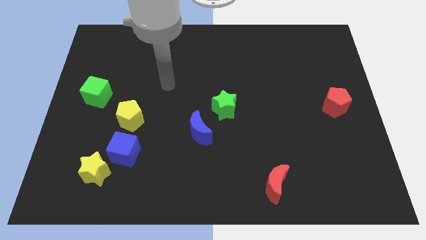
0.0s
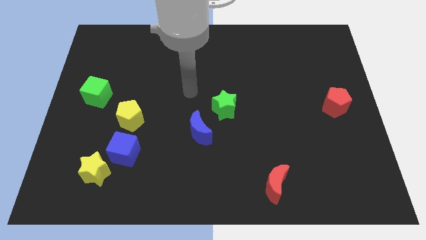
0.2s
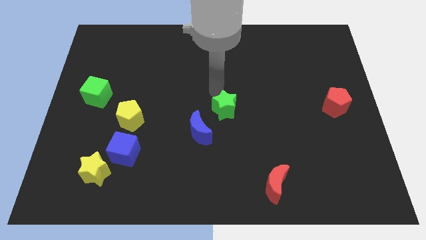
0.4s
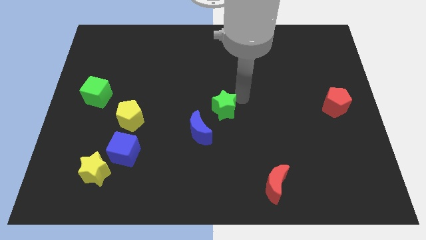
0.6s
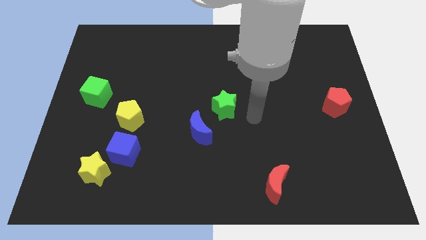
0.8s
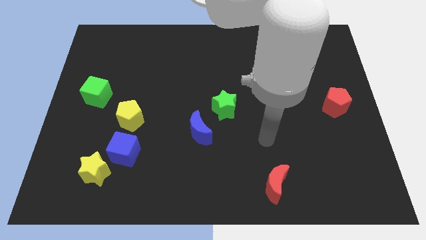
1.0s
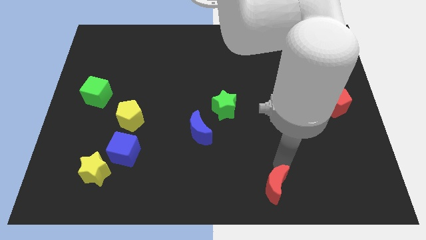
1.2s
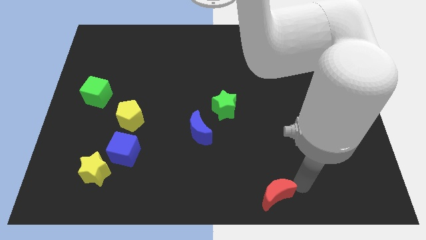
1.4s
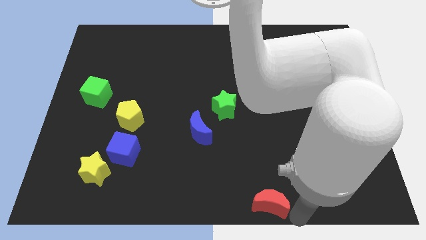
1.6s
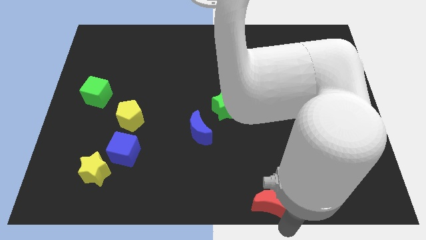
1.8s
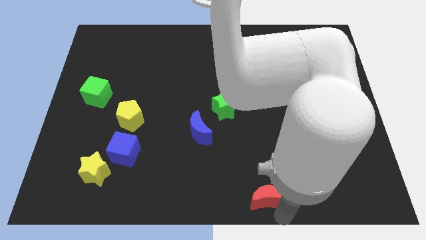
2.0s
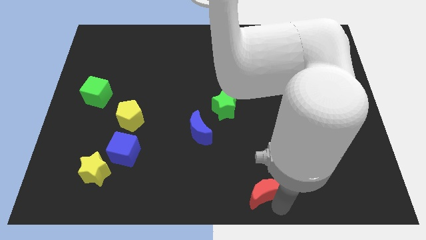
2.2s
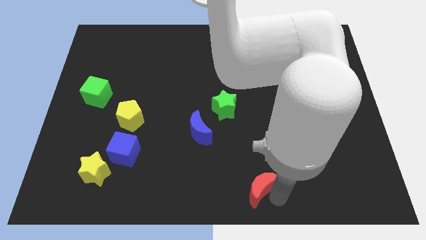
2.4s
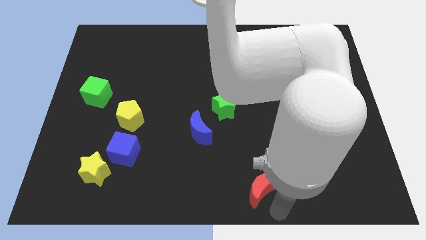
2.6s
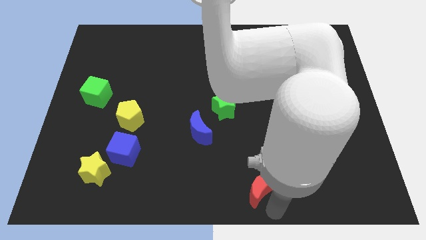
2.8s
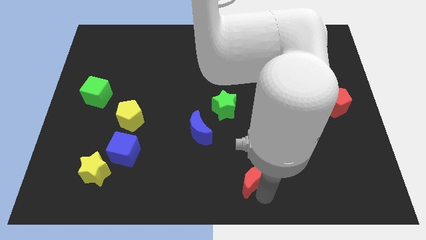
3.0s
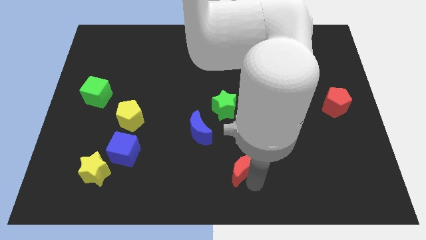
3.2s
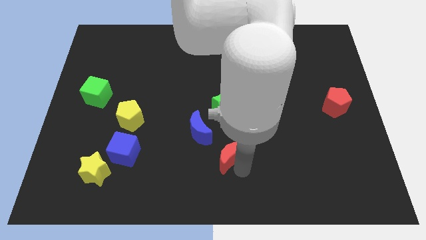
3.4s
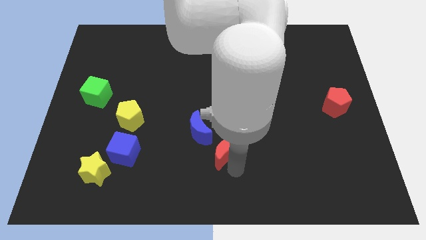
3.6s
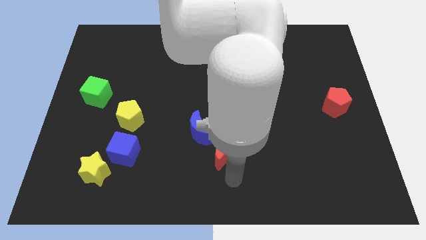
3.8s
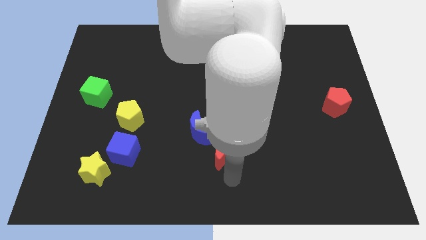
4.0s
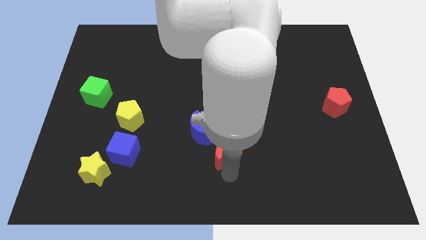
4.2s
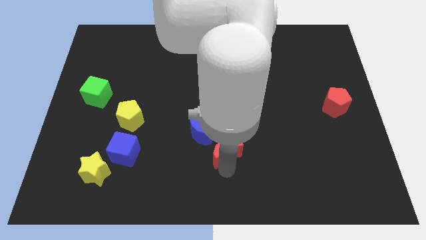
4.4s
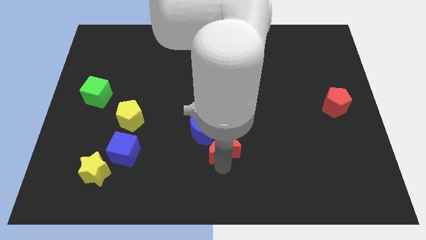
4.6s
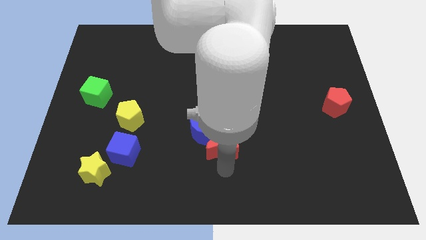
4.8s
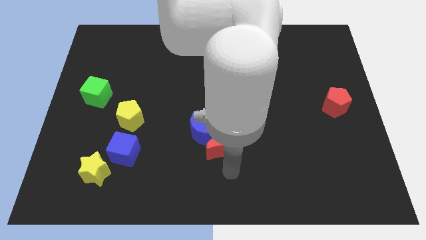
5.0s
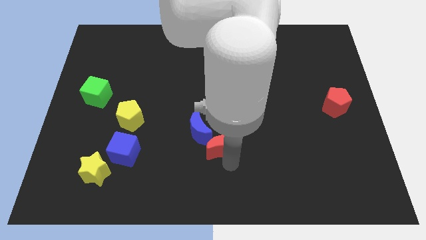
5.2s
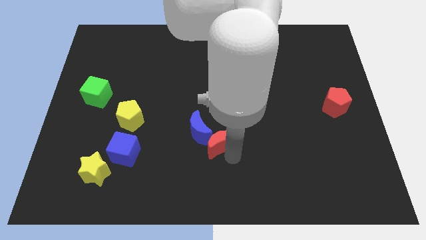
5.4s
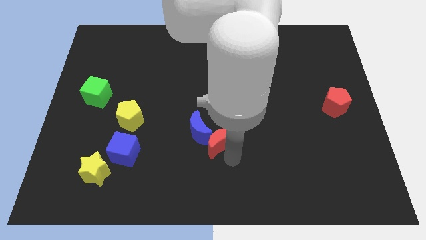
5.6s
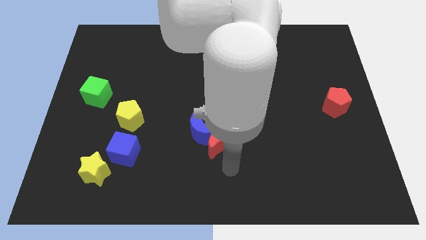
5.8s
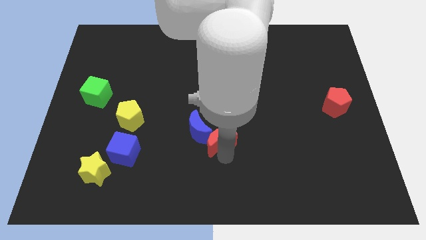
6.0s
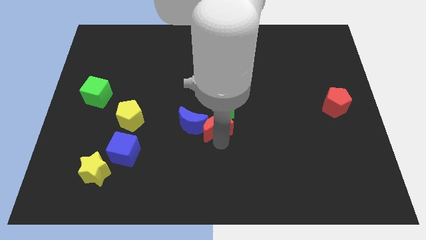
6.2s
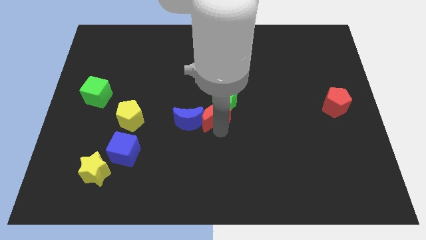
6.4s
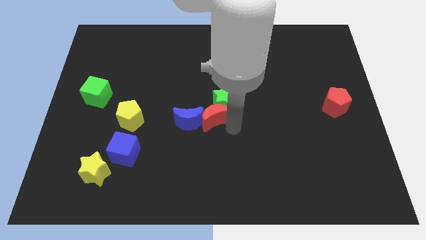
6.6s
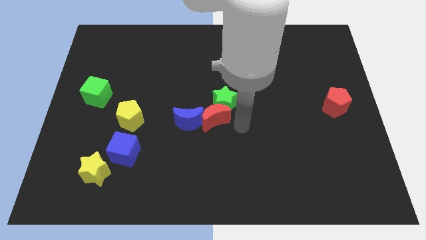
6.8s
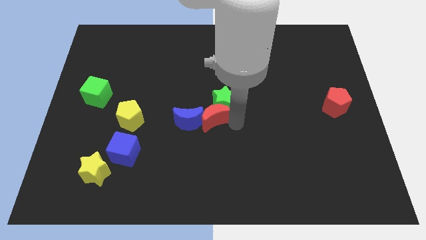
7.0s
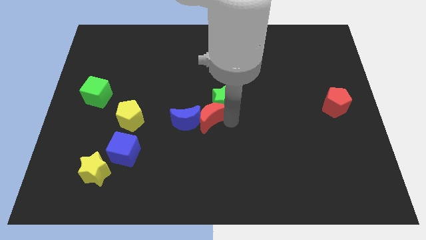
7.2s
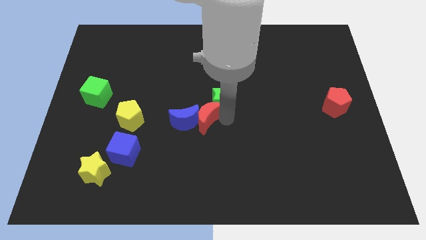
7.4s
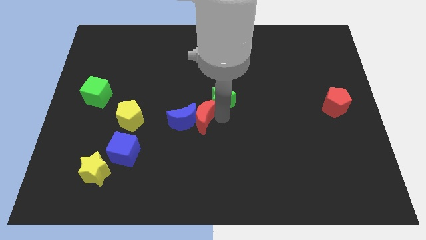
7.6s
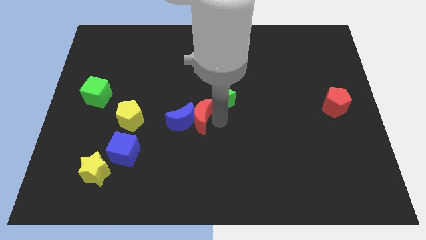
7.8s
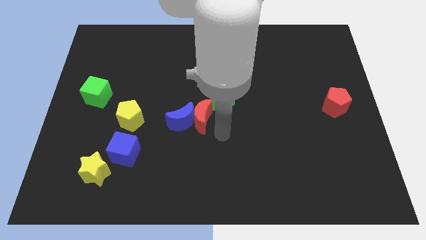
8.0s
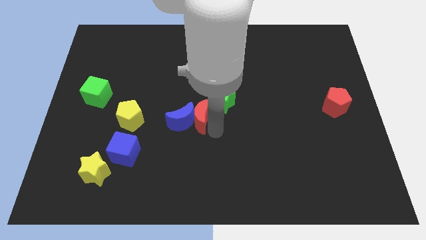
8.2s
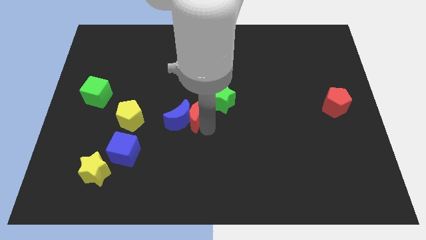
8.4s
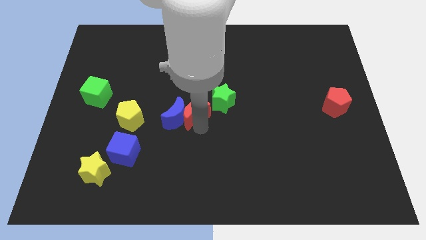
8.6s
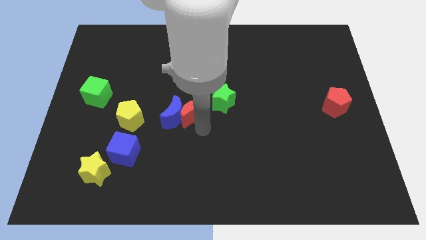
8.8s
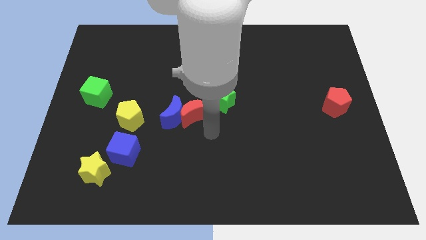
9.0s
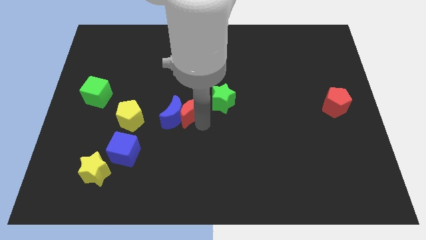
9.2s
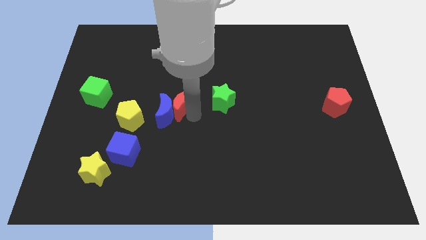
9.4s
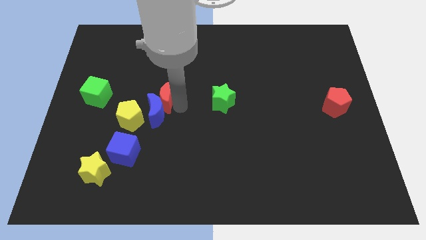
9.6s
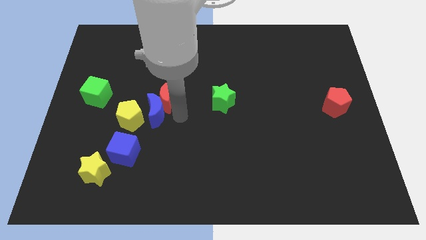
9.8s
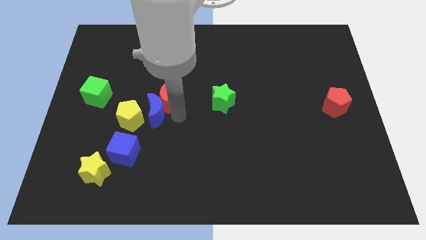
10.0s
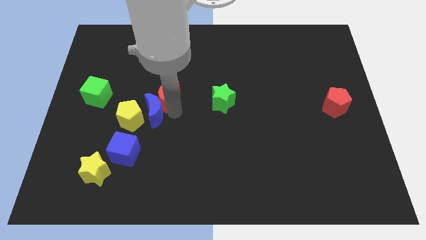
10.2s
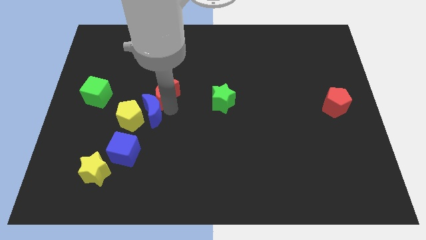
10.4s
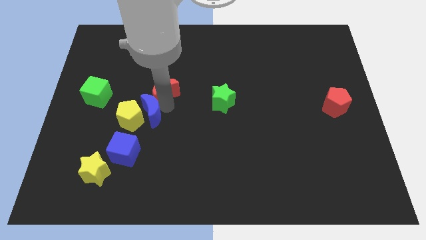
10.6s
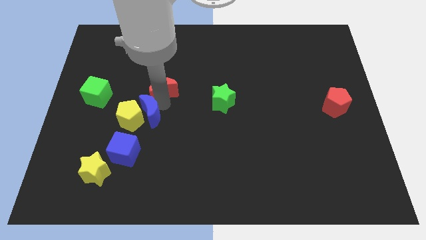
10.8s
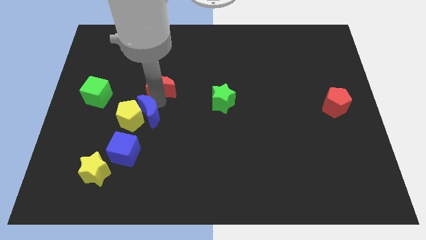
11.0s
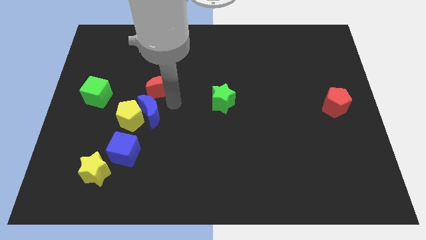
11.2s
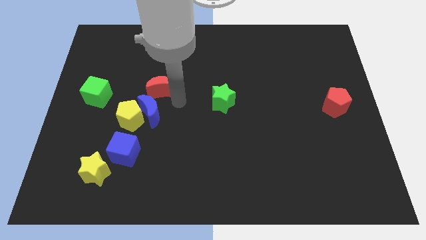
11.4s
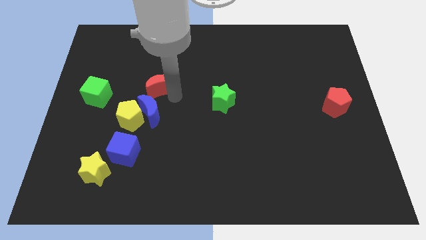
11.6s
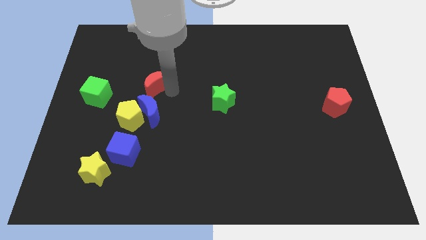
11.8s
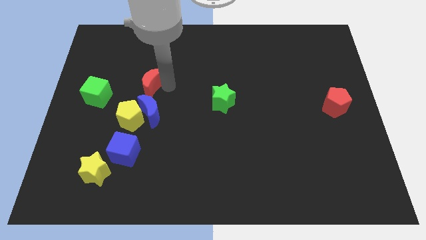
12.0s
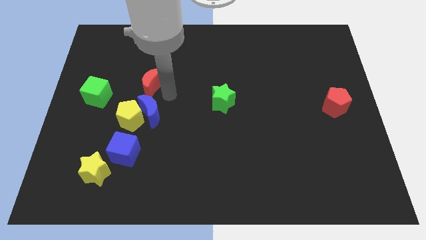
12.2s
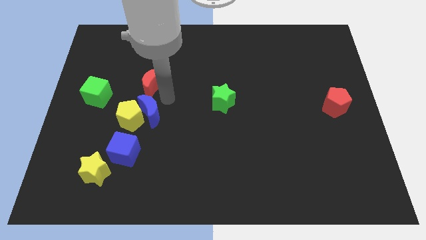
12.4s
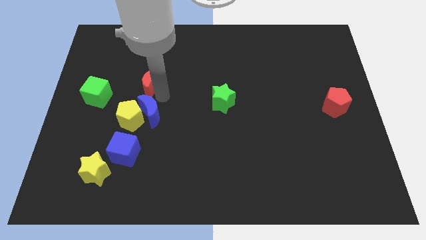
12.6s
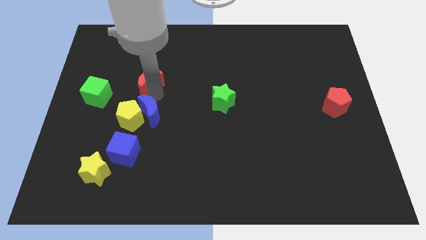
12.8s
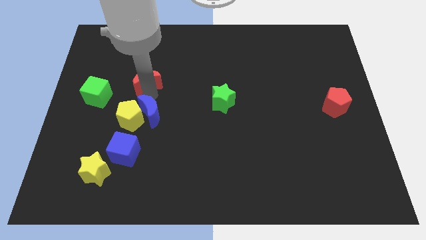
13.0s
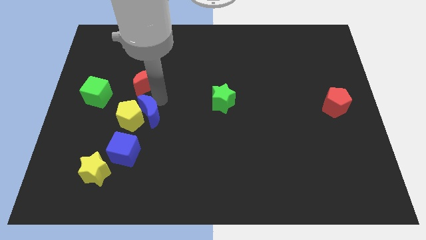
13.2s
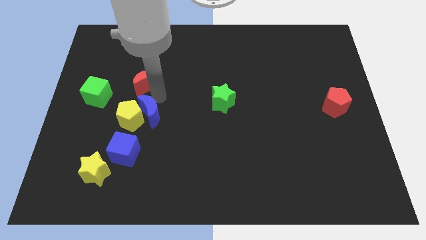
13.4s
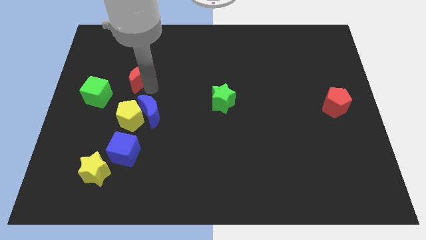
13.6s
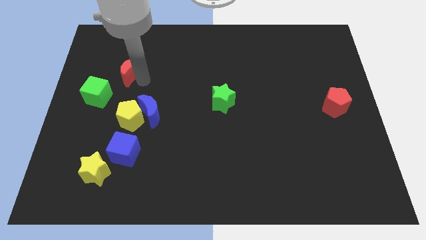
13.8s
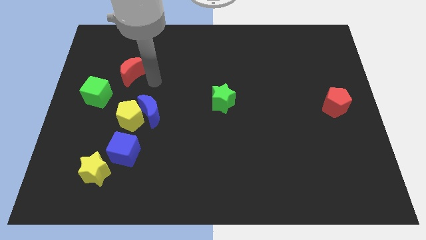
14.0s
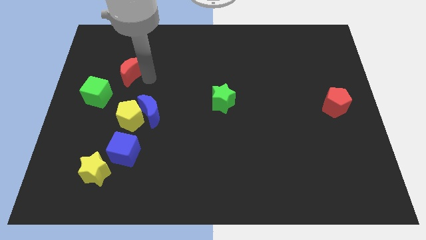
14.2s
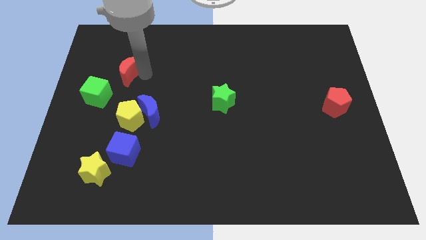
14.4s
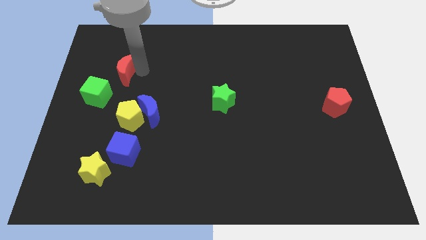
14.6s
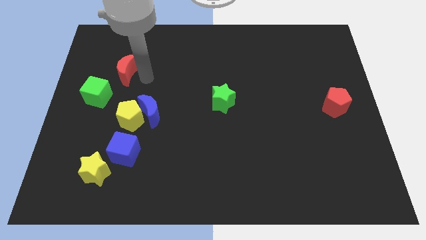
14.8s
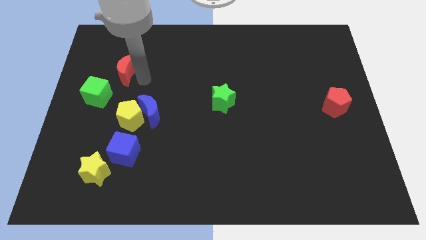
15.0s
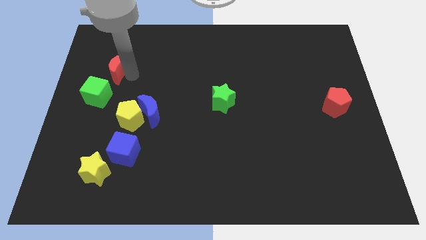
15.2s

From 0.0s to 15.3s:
move the red moon to the top side of the green cube
